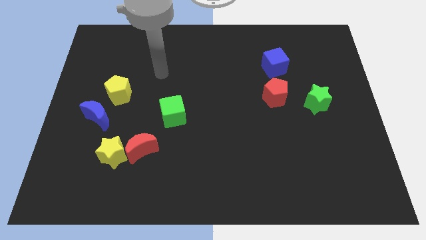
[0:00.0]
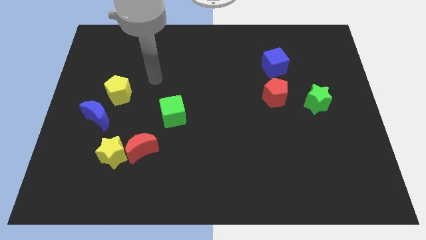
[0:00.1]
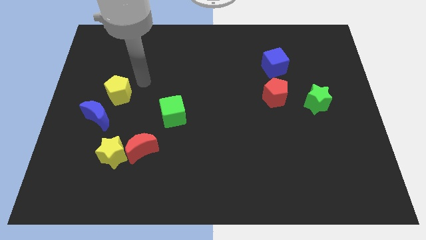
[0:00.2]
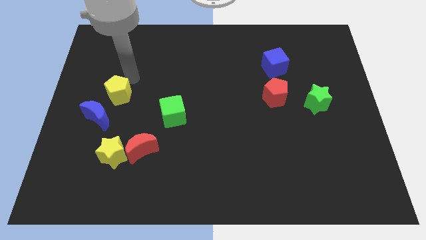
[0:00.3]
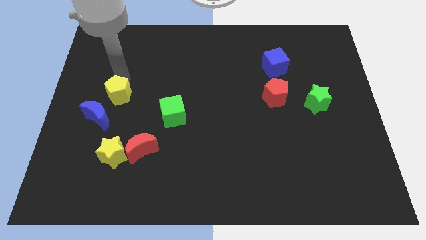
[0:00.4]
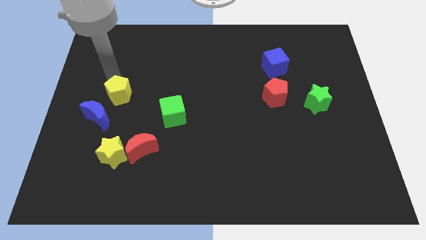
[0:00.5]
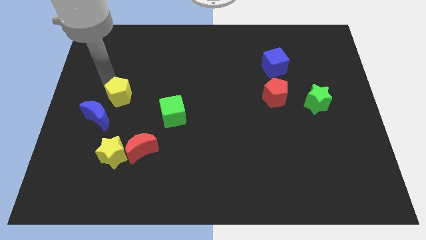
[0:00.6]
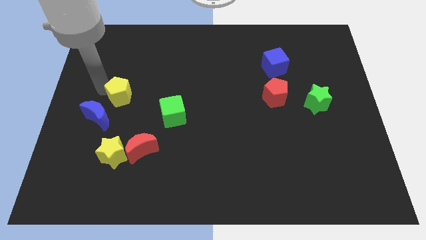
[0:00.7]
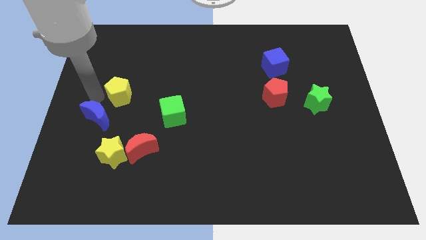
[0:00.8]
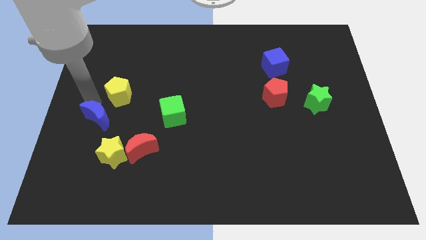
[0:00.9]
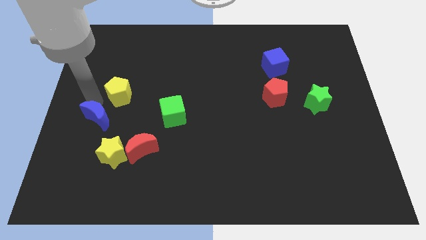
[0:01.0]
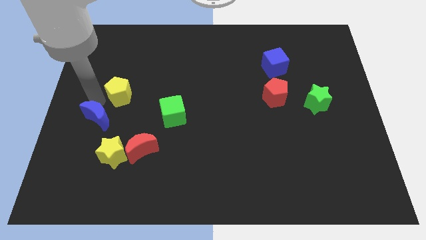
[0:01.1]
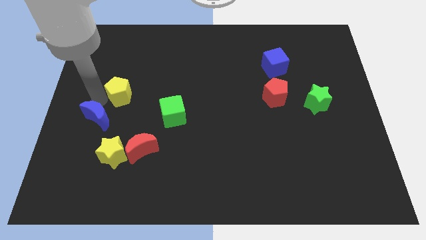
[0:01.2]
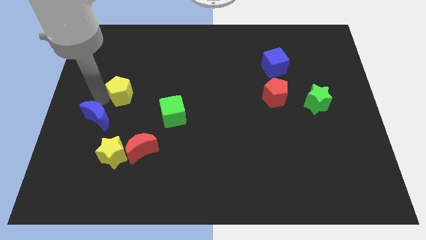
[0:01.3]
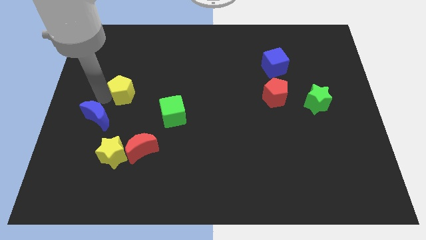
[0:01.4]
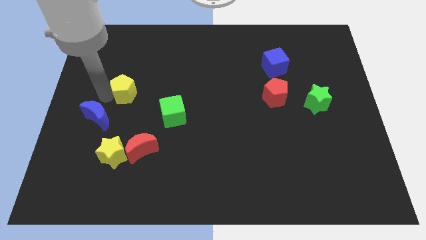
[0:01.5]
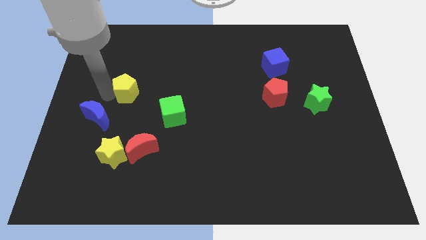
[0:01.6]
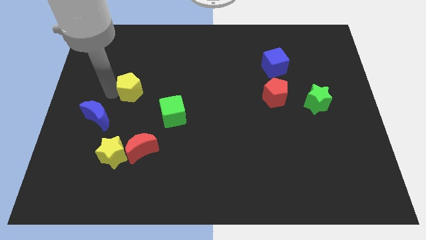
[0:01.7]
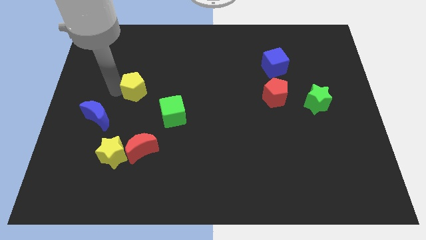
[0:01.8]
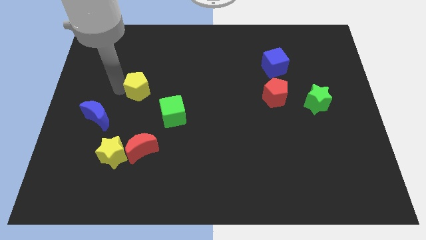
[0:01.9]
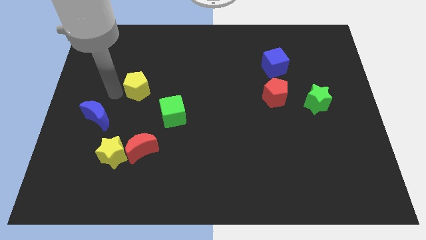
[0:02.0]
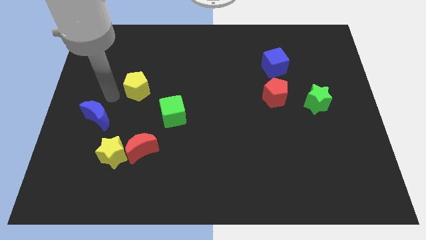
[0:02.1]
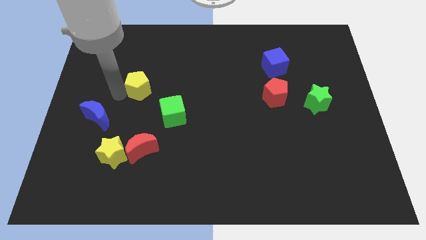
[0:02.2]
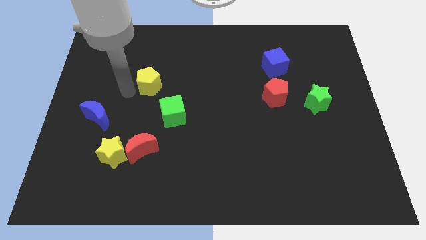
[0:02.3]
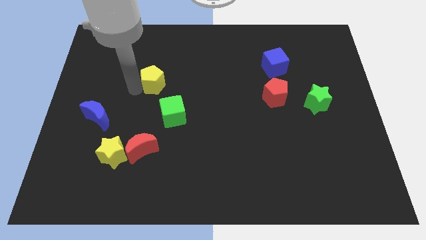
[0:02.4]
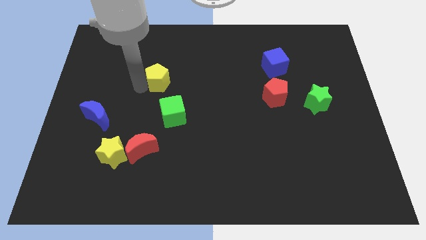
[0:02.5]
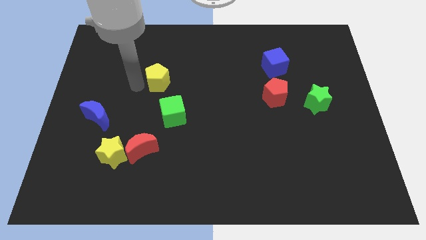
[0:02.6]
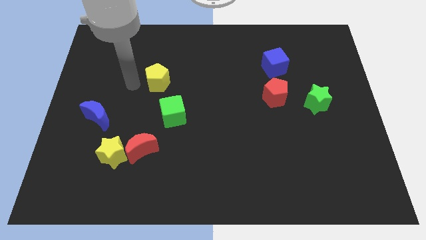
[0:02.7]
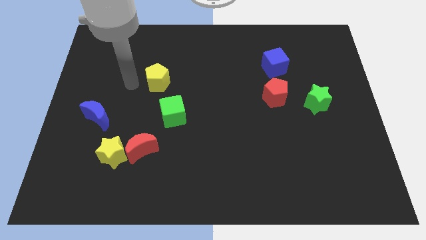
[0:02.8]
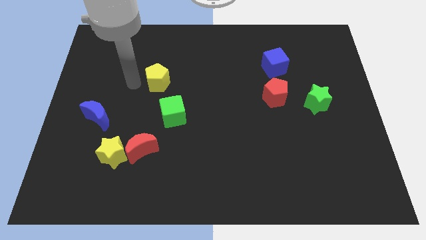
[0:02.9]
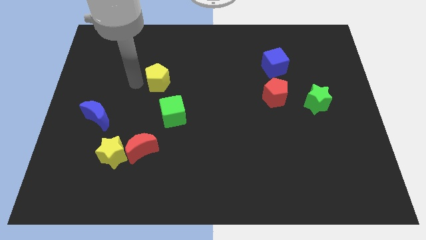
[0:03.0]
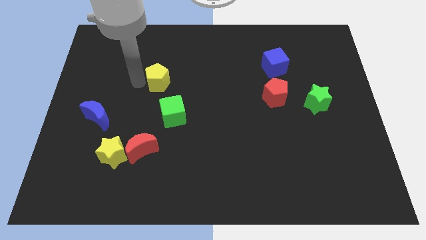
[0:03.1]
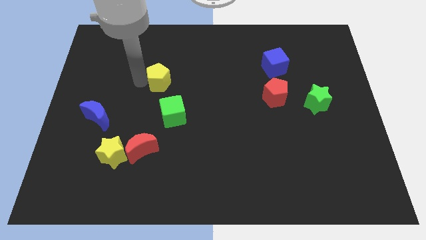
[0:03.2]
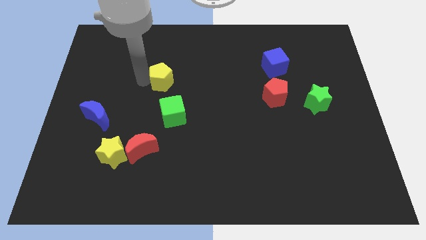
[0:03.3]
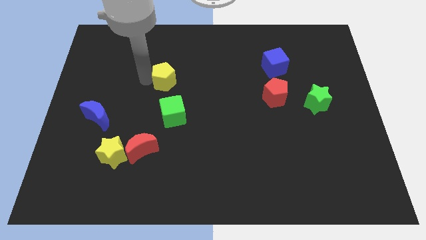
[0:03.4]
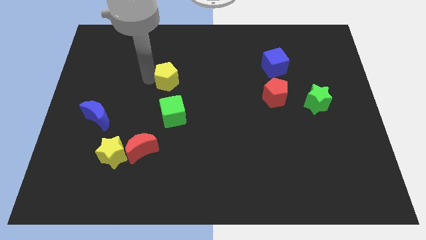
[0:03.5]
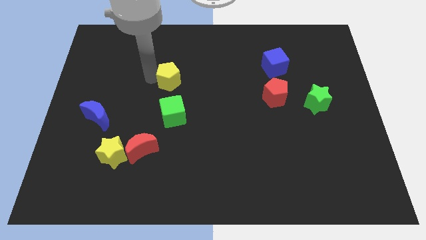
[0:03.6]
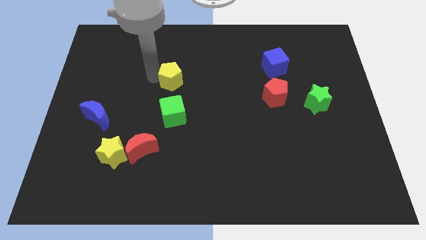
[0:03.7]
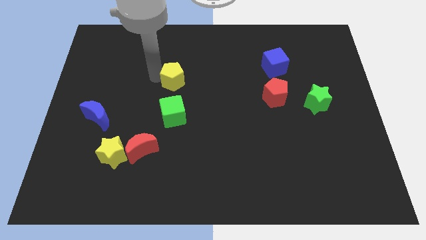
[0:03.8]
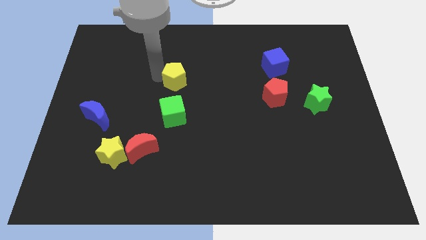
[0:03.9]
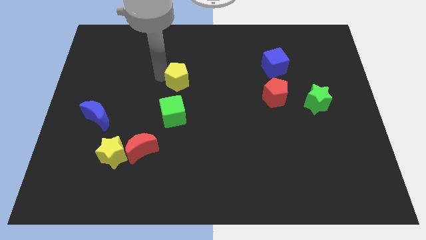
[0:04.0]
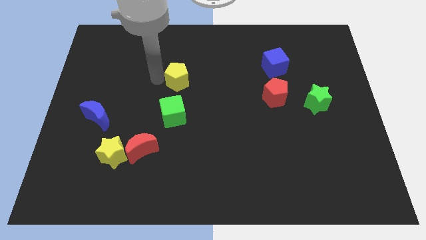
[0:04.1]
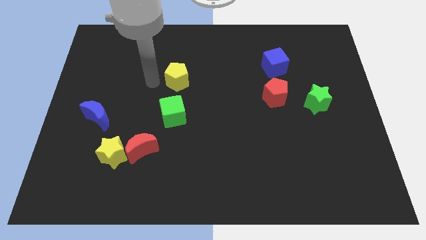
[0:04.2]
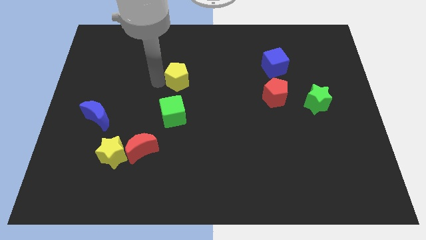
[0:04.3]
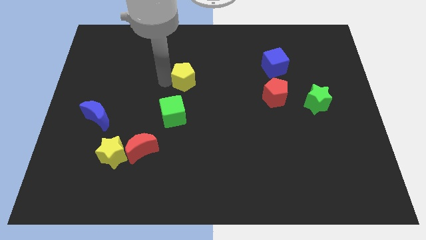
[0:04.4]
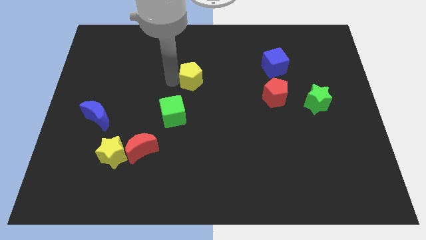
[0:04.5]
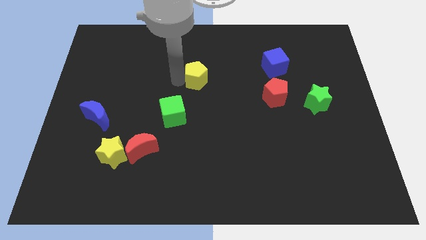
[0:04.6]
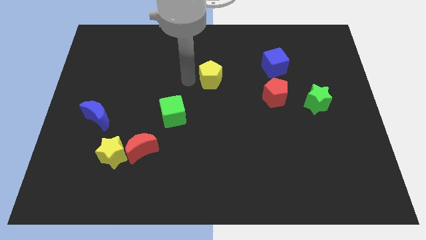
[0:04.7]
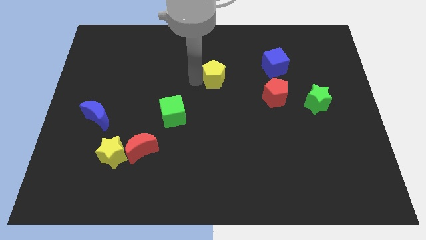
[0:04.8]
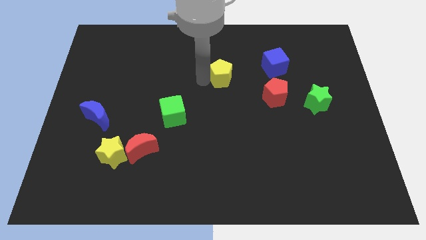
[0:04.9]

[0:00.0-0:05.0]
slide the yellow pentagon to the left side of the blue cube

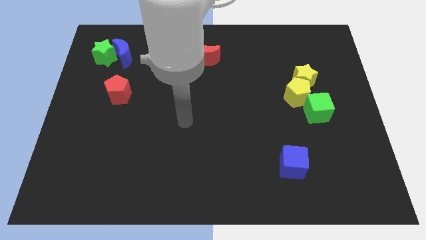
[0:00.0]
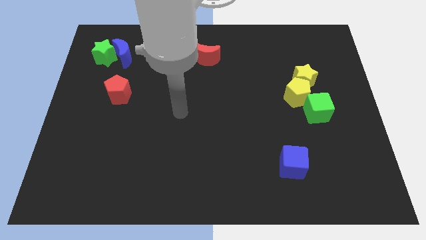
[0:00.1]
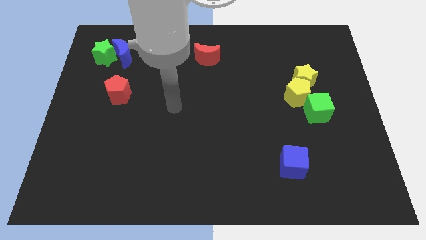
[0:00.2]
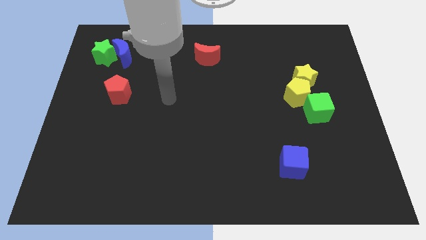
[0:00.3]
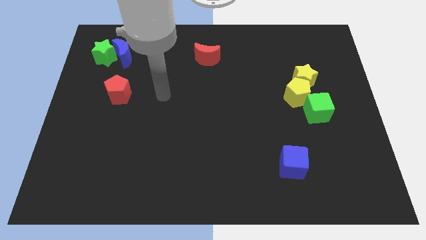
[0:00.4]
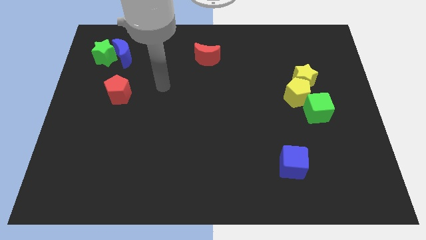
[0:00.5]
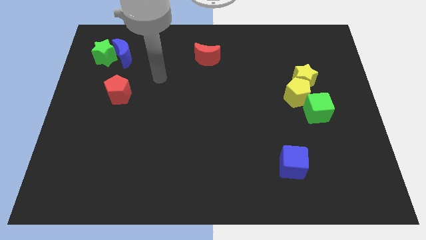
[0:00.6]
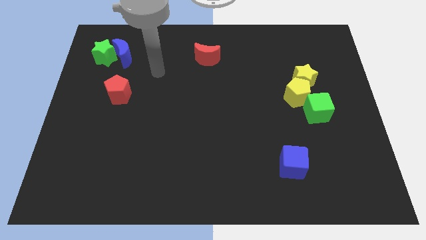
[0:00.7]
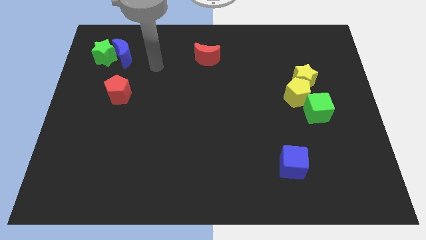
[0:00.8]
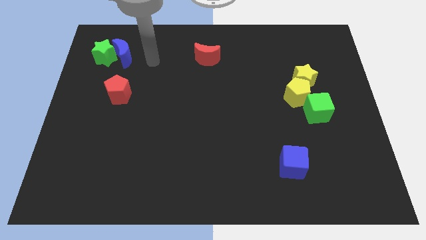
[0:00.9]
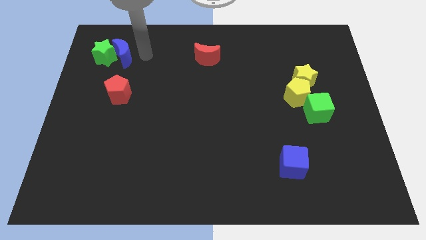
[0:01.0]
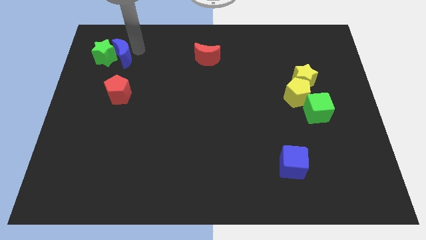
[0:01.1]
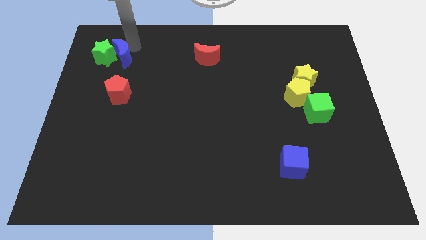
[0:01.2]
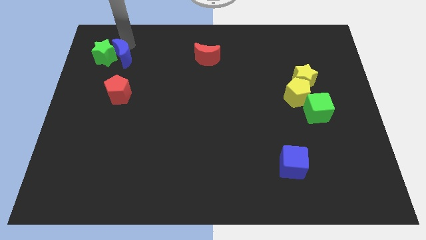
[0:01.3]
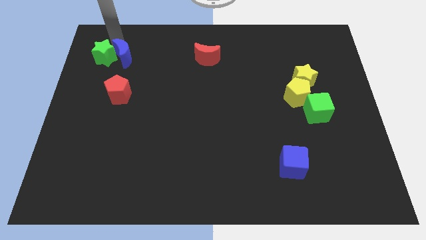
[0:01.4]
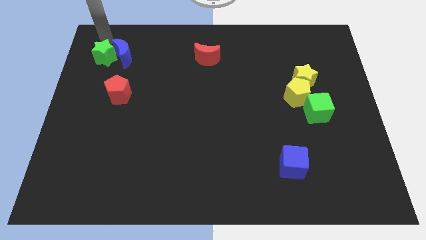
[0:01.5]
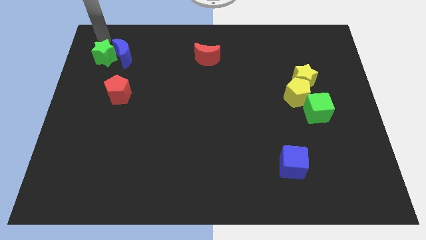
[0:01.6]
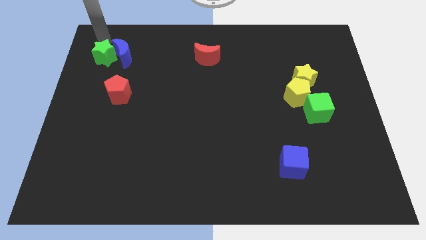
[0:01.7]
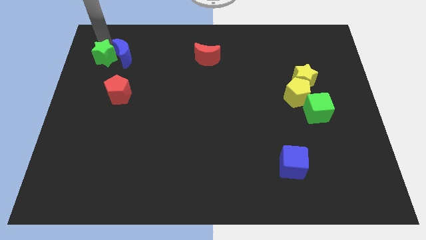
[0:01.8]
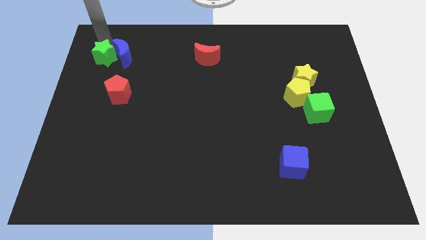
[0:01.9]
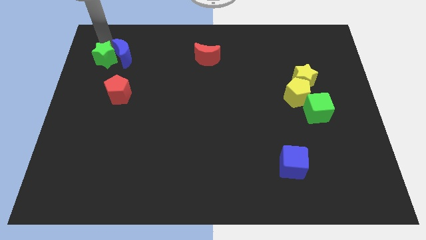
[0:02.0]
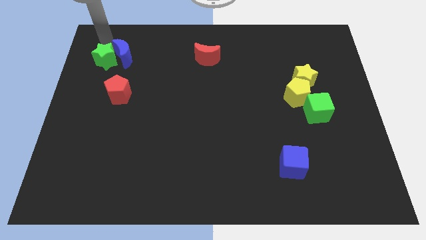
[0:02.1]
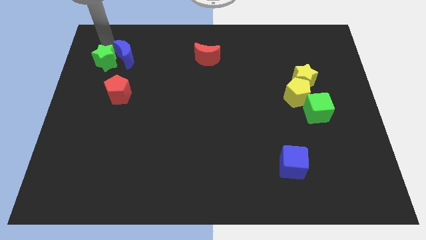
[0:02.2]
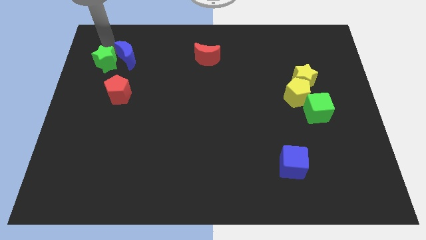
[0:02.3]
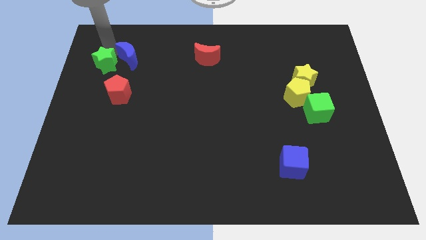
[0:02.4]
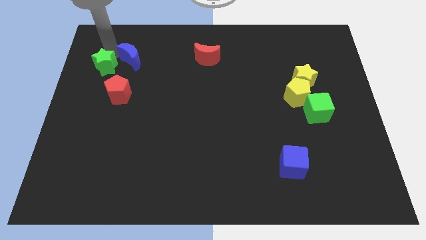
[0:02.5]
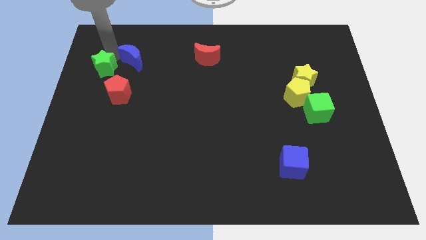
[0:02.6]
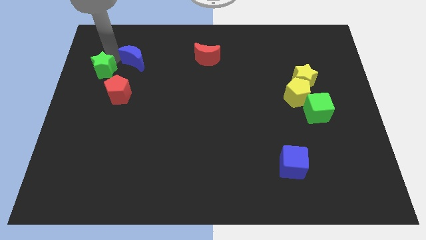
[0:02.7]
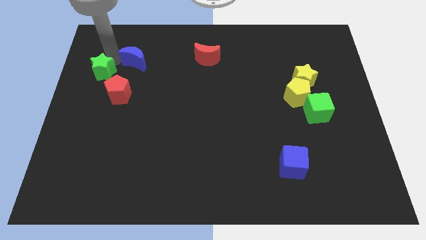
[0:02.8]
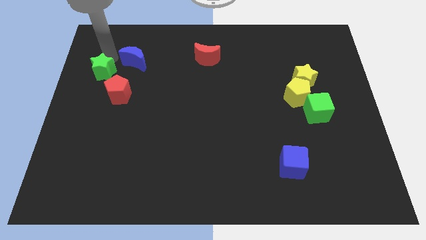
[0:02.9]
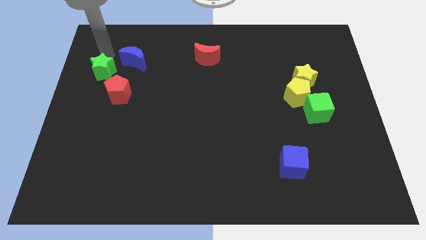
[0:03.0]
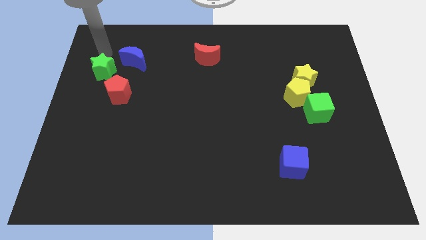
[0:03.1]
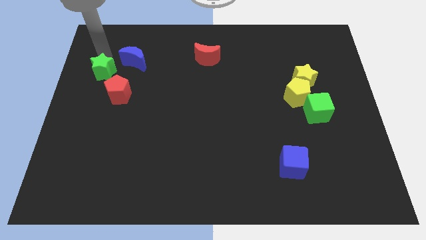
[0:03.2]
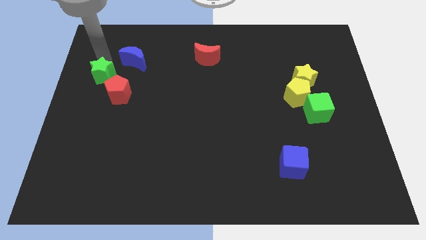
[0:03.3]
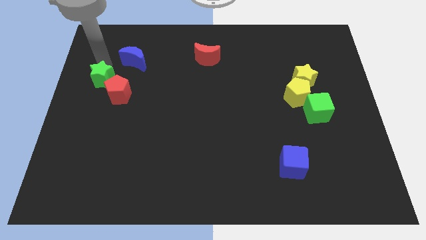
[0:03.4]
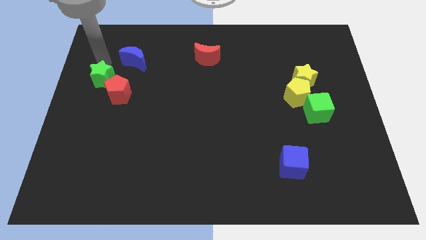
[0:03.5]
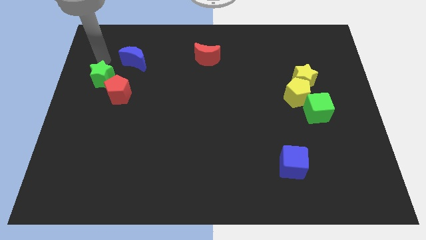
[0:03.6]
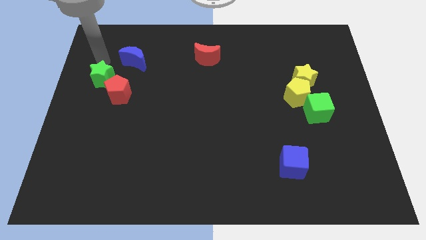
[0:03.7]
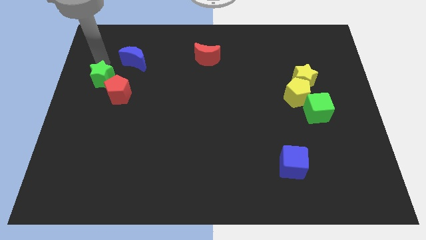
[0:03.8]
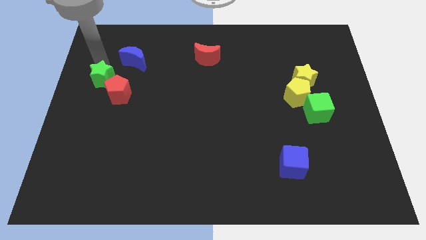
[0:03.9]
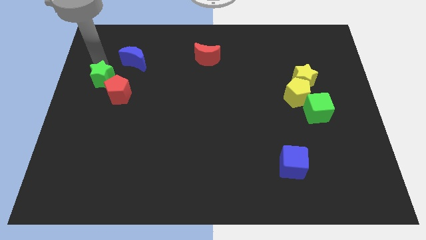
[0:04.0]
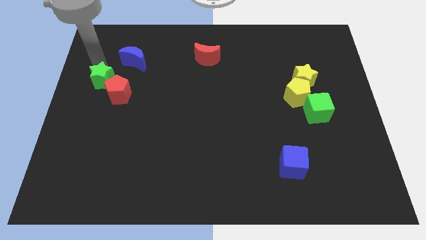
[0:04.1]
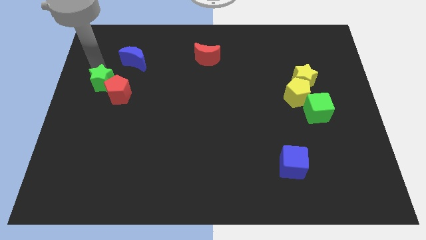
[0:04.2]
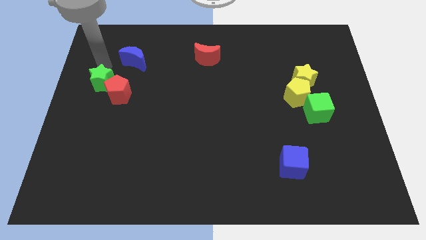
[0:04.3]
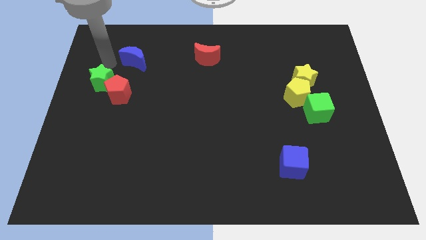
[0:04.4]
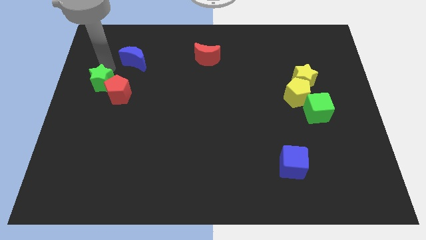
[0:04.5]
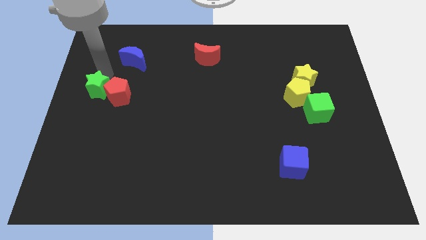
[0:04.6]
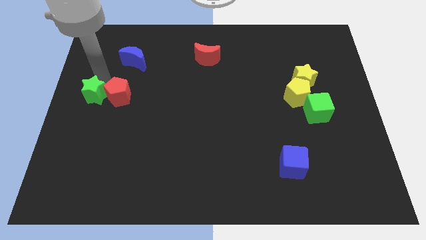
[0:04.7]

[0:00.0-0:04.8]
move the green star diagonally down and to the left of the red pentagon
